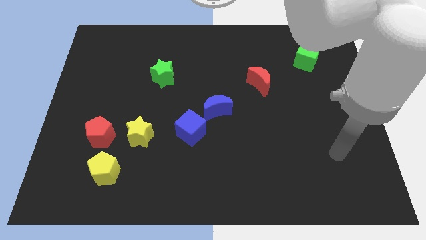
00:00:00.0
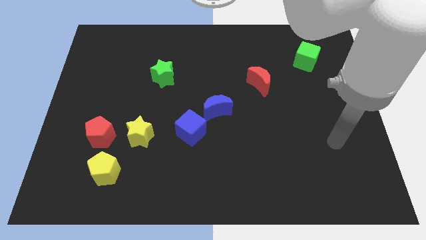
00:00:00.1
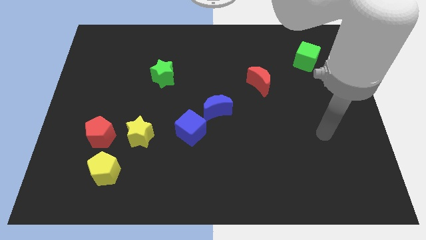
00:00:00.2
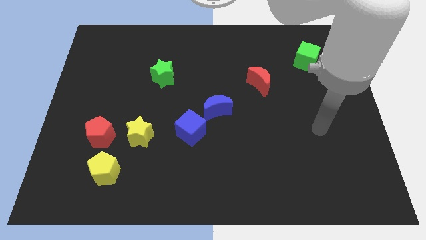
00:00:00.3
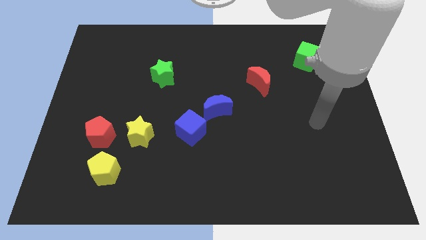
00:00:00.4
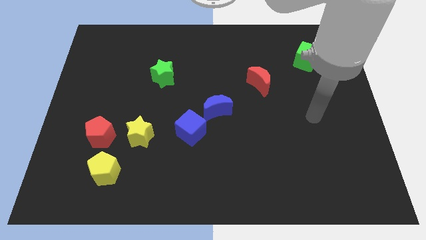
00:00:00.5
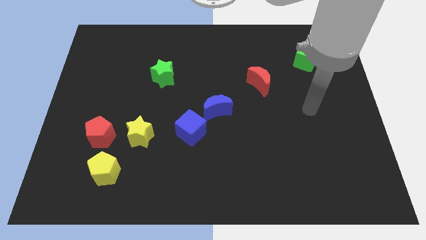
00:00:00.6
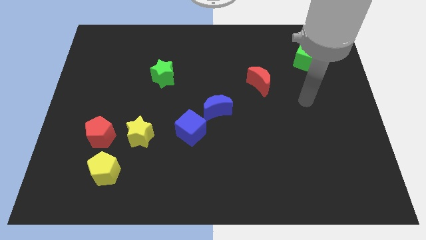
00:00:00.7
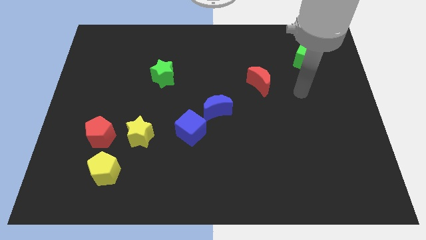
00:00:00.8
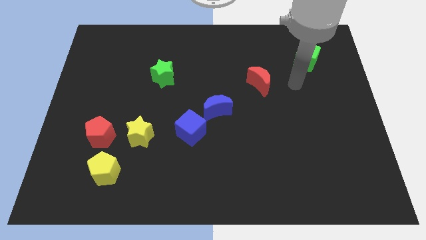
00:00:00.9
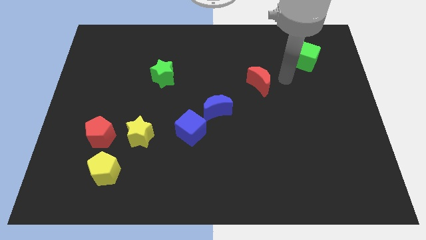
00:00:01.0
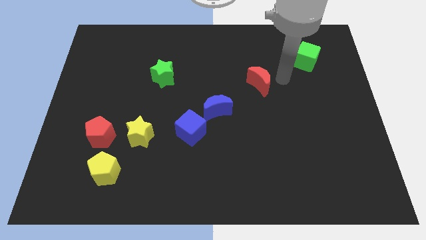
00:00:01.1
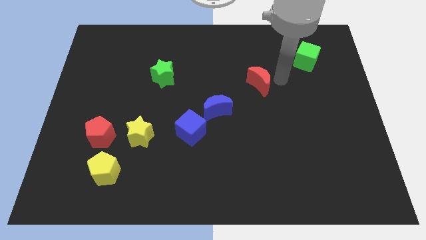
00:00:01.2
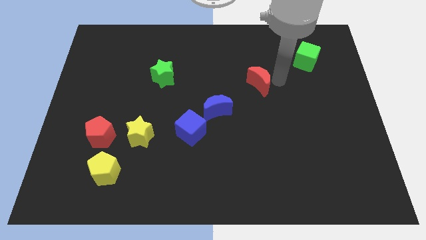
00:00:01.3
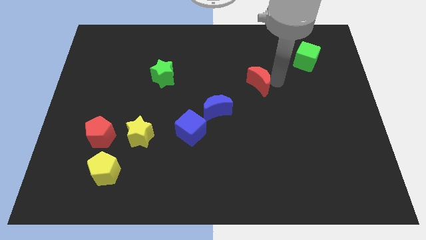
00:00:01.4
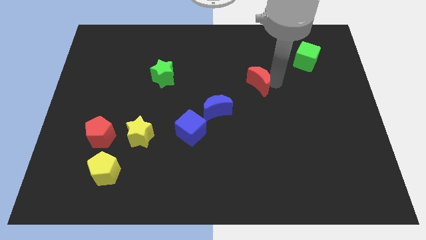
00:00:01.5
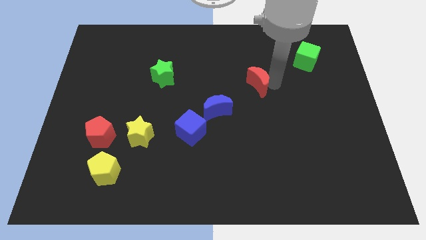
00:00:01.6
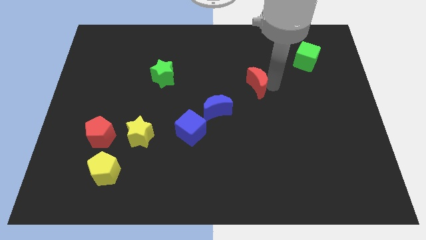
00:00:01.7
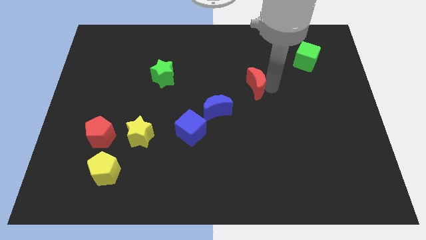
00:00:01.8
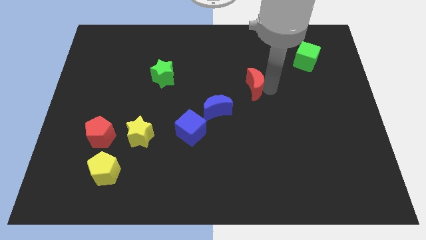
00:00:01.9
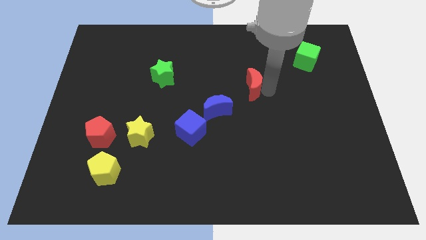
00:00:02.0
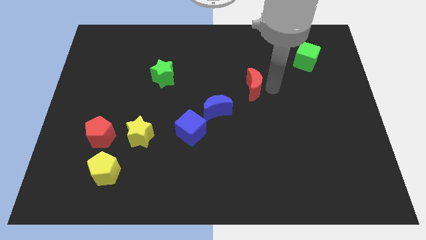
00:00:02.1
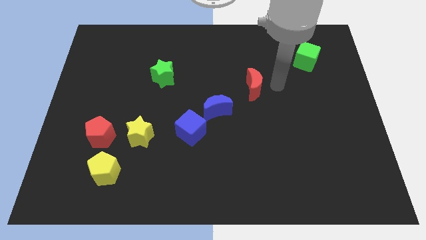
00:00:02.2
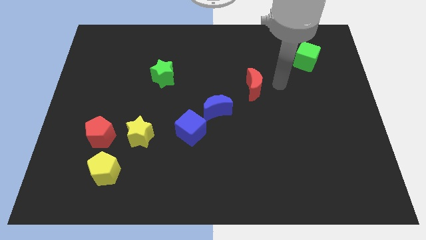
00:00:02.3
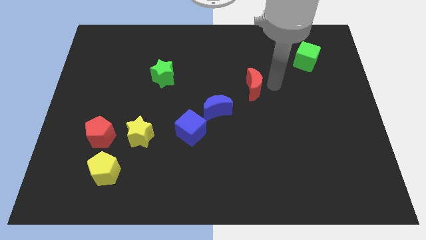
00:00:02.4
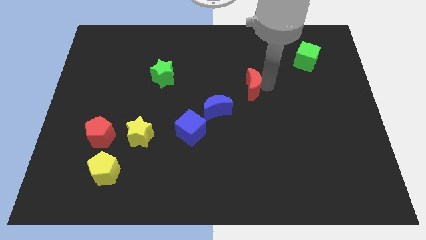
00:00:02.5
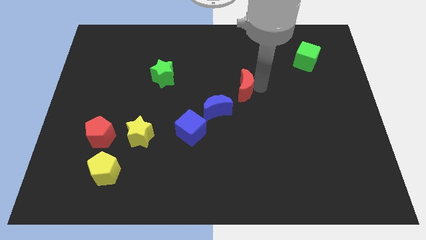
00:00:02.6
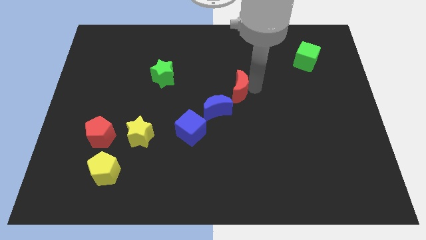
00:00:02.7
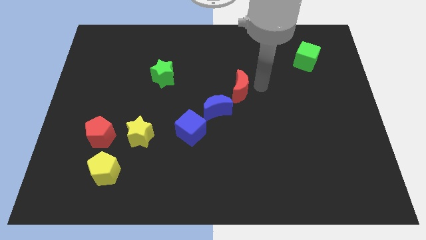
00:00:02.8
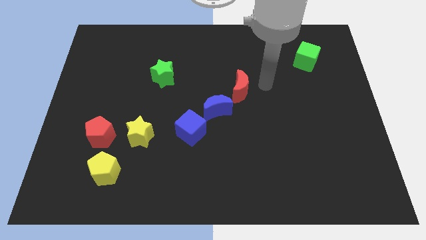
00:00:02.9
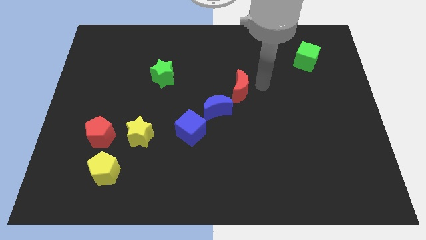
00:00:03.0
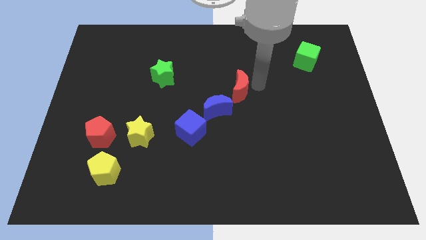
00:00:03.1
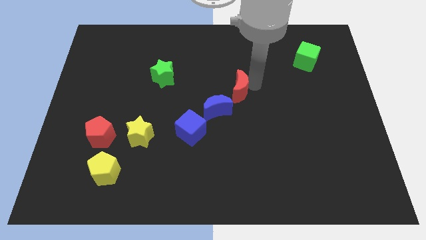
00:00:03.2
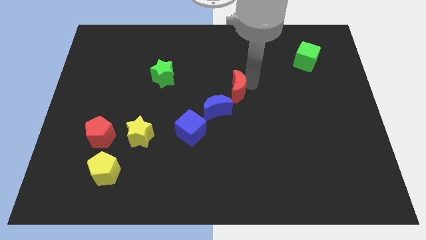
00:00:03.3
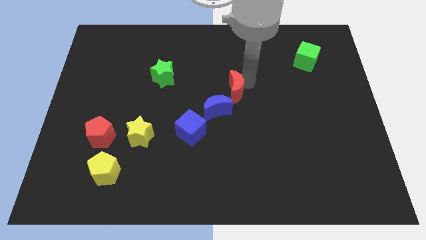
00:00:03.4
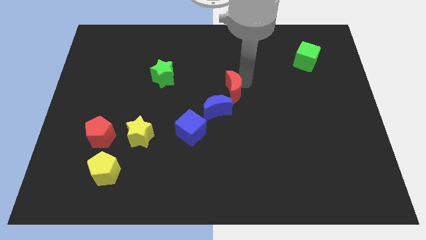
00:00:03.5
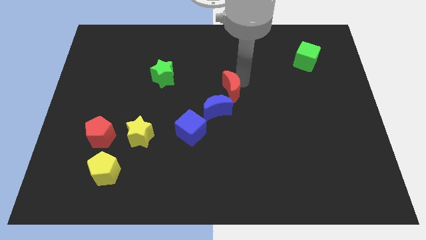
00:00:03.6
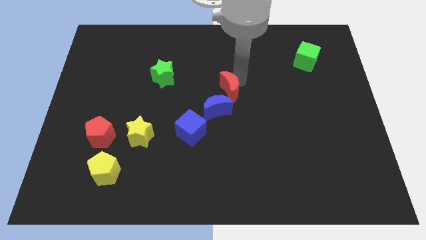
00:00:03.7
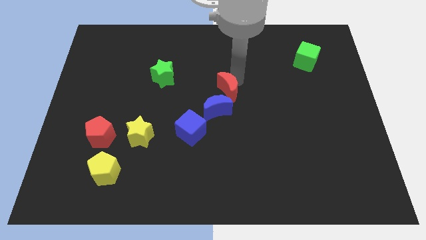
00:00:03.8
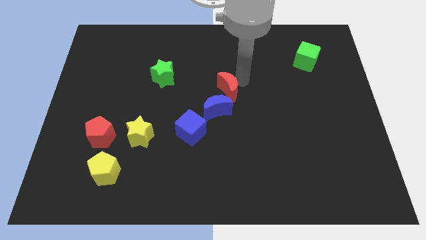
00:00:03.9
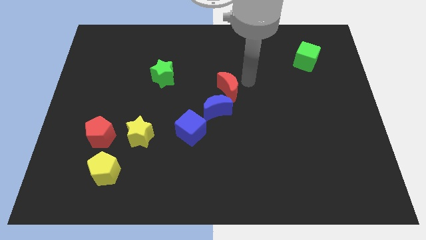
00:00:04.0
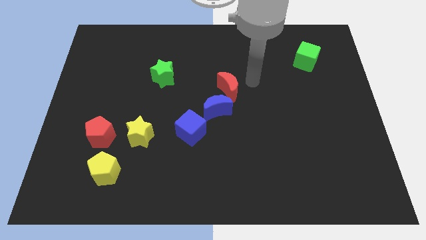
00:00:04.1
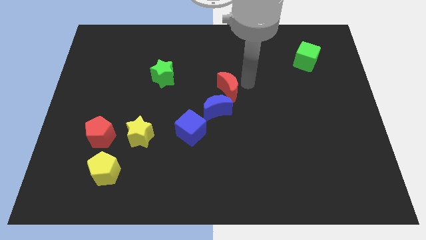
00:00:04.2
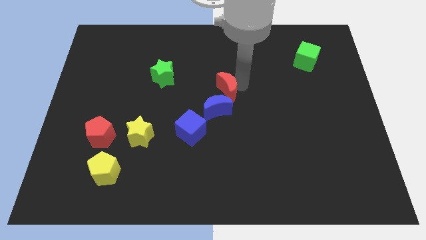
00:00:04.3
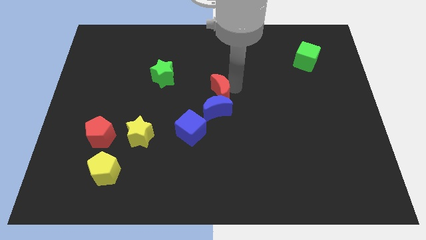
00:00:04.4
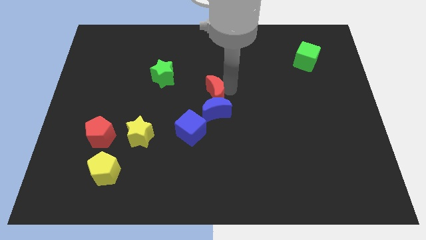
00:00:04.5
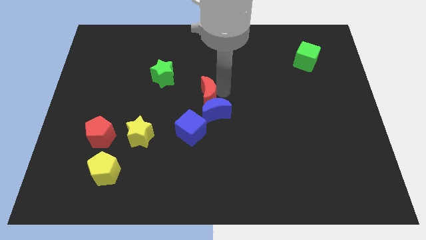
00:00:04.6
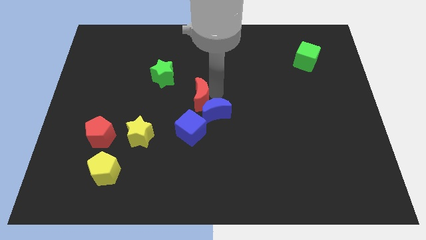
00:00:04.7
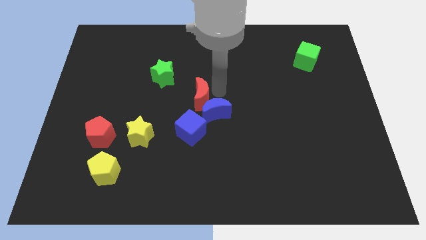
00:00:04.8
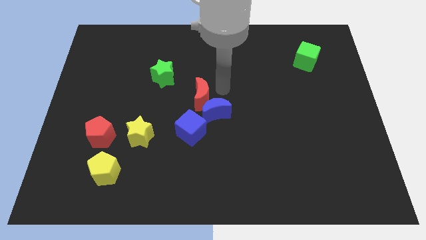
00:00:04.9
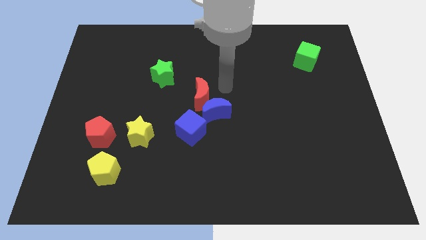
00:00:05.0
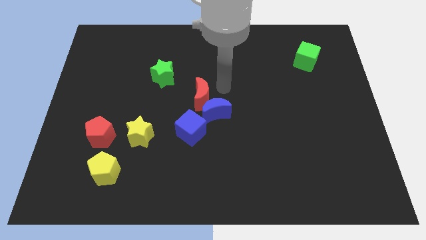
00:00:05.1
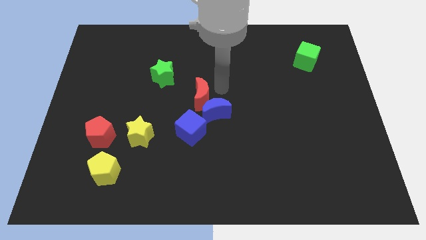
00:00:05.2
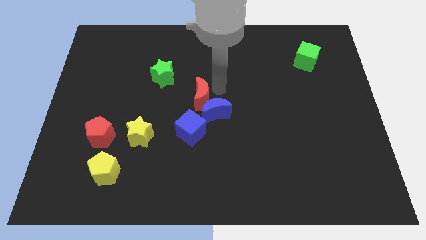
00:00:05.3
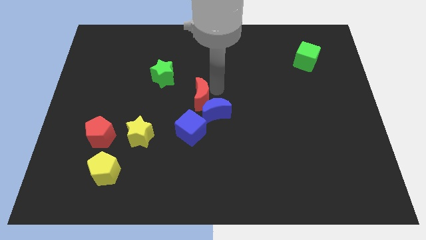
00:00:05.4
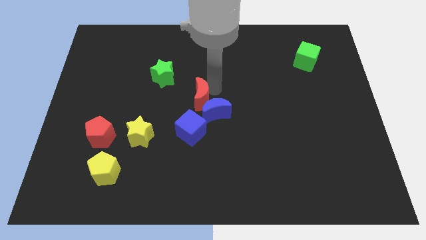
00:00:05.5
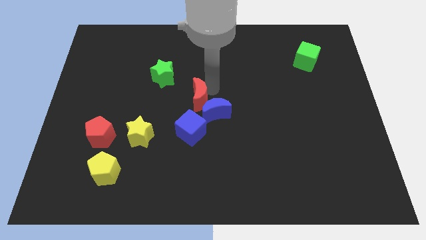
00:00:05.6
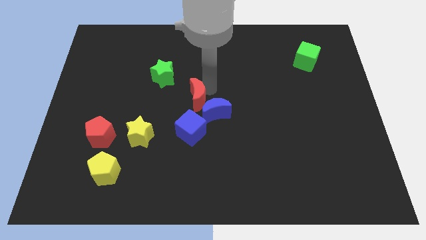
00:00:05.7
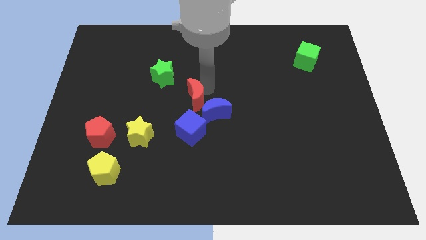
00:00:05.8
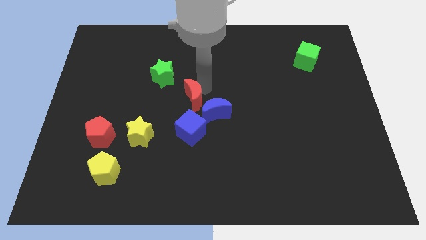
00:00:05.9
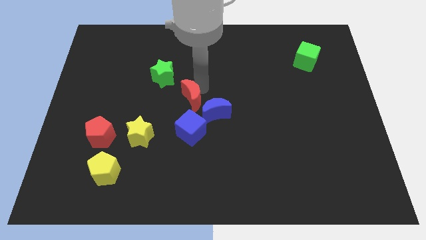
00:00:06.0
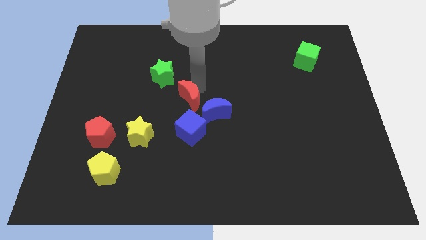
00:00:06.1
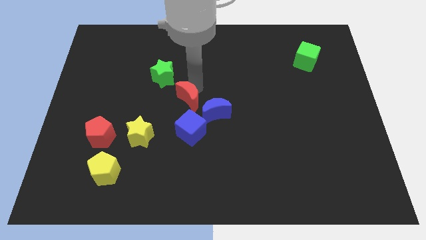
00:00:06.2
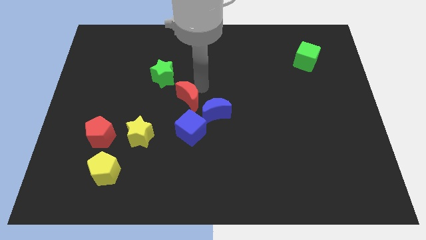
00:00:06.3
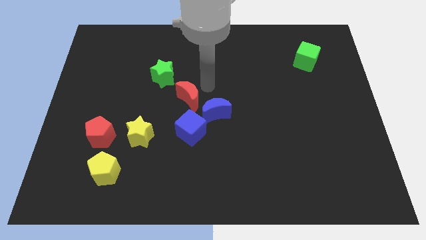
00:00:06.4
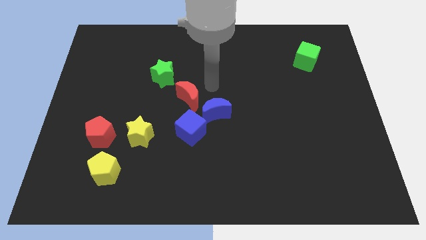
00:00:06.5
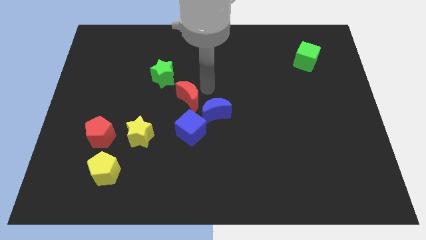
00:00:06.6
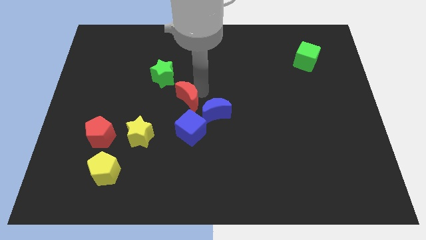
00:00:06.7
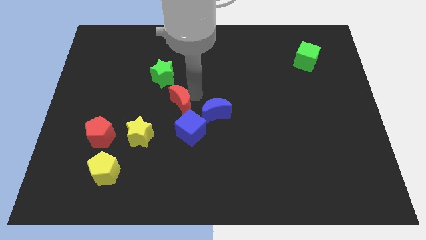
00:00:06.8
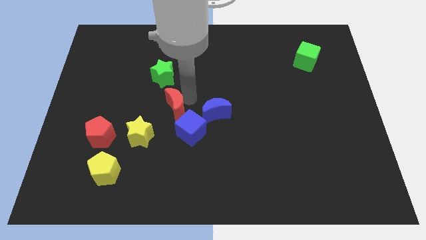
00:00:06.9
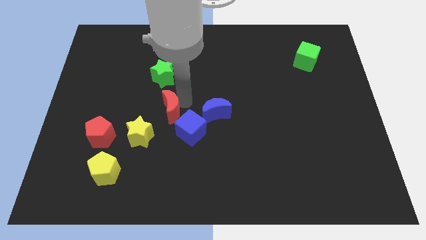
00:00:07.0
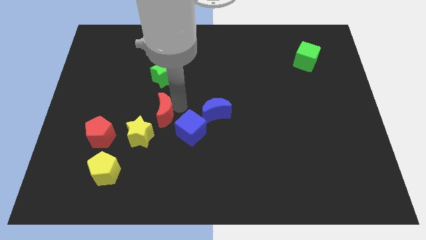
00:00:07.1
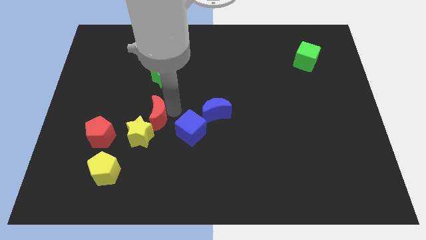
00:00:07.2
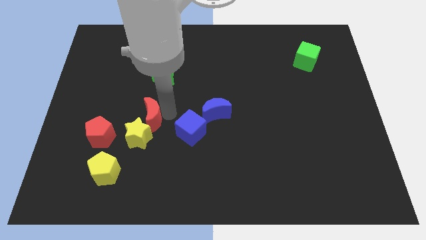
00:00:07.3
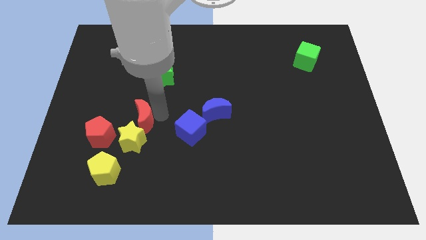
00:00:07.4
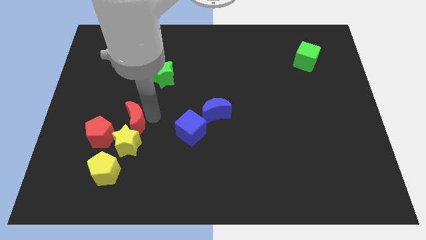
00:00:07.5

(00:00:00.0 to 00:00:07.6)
put the red moon to the top side of the yellow pentagon
